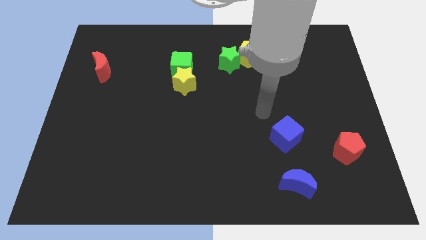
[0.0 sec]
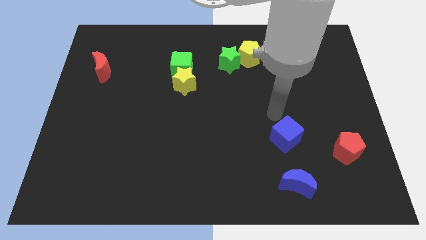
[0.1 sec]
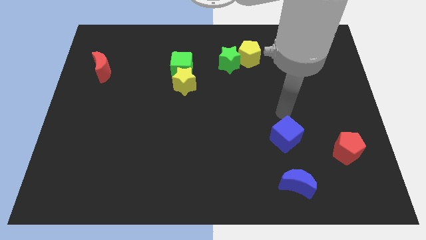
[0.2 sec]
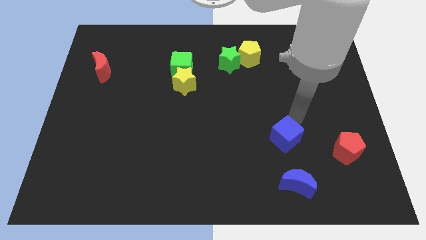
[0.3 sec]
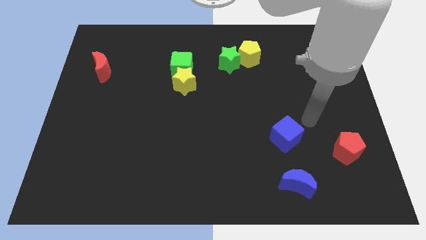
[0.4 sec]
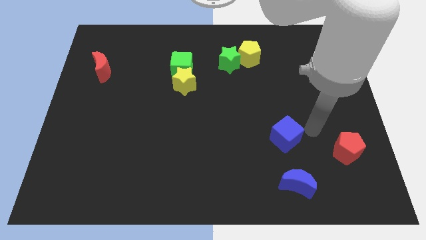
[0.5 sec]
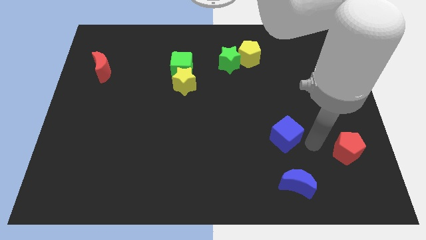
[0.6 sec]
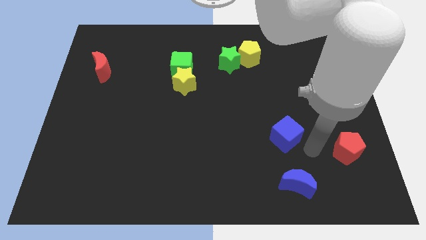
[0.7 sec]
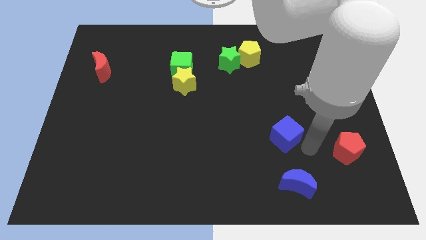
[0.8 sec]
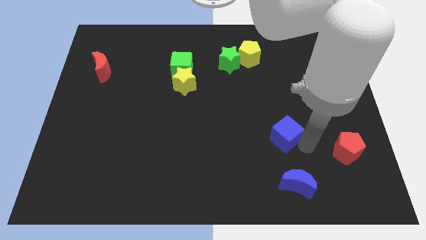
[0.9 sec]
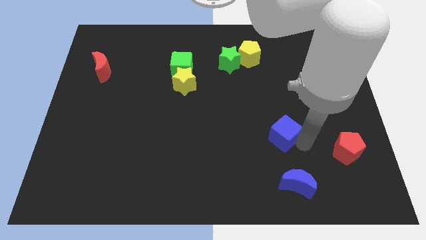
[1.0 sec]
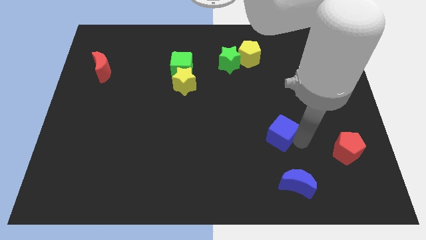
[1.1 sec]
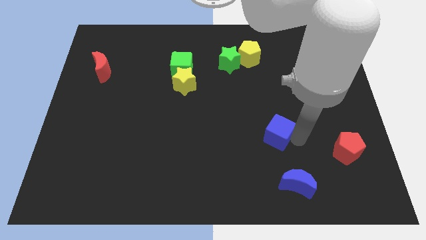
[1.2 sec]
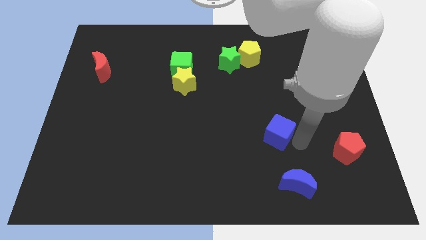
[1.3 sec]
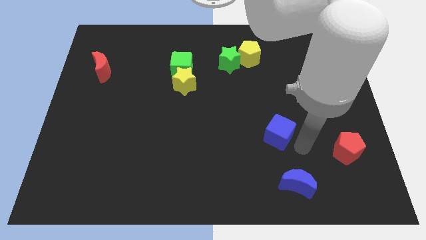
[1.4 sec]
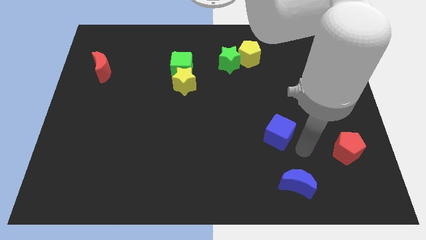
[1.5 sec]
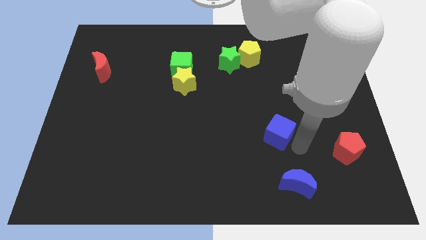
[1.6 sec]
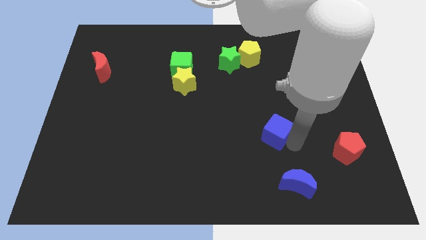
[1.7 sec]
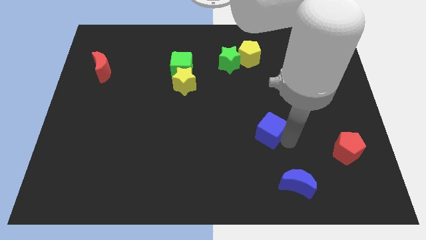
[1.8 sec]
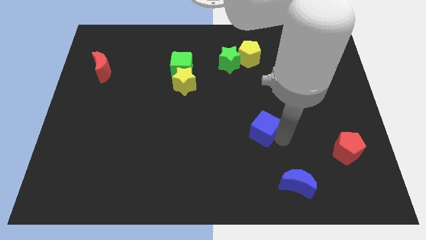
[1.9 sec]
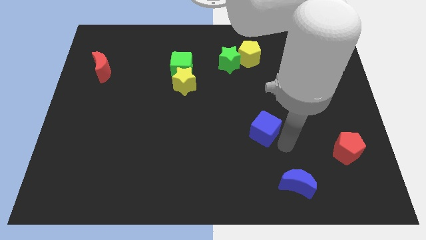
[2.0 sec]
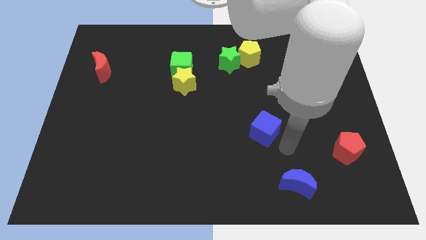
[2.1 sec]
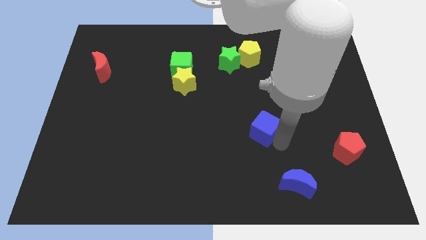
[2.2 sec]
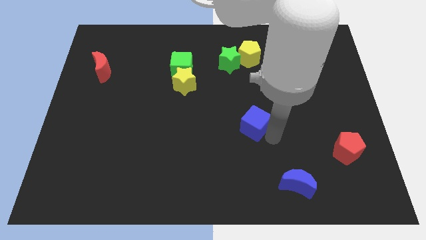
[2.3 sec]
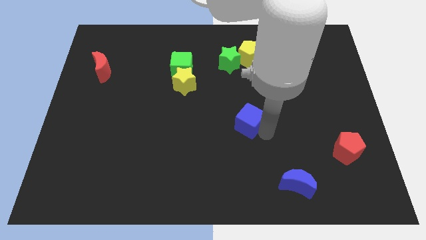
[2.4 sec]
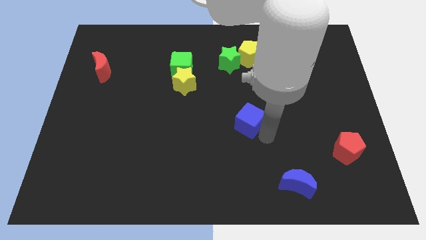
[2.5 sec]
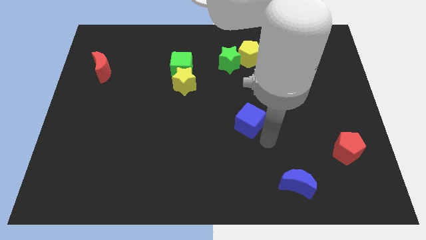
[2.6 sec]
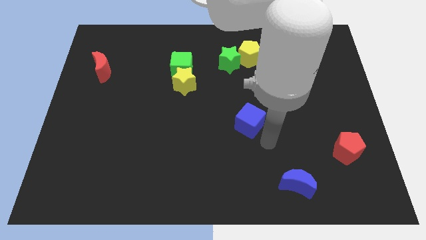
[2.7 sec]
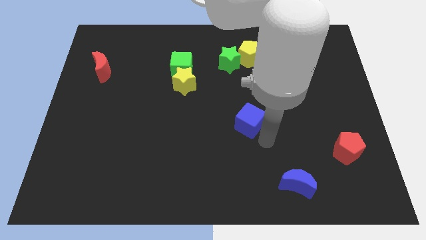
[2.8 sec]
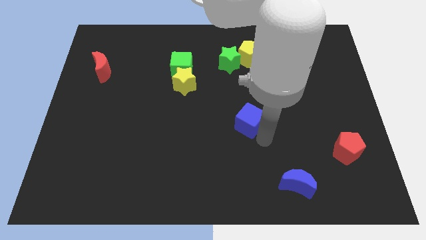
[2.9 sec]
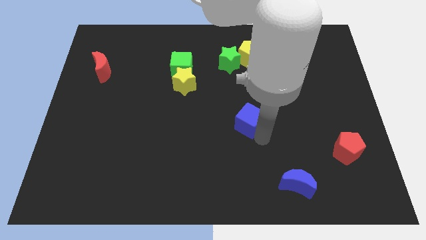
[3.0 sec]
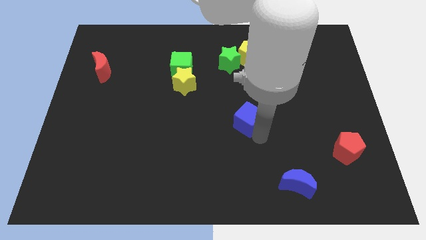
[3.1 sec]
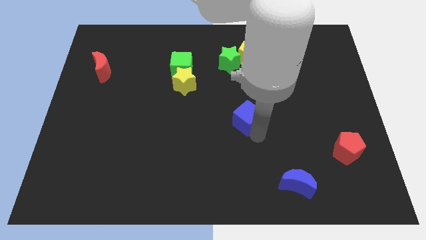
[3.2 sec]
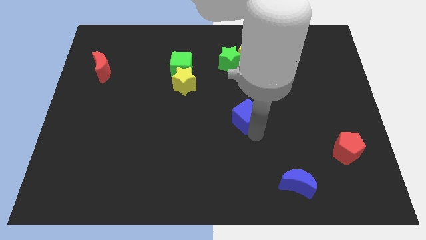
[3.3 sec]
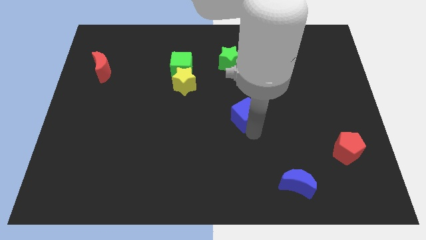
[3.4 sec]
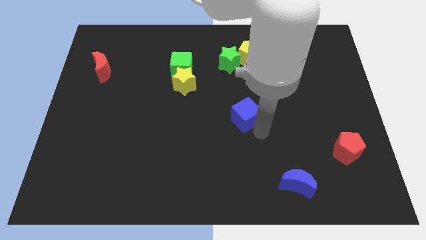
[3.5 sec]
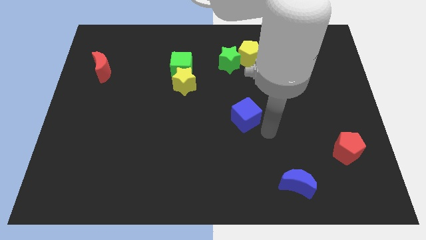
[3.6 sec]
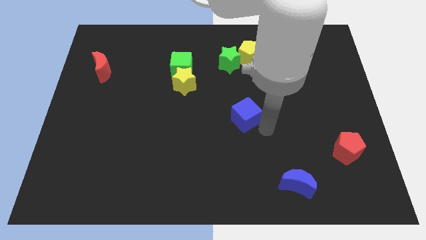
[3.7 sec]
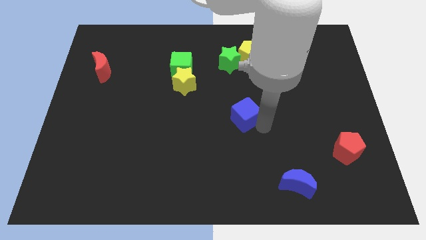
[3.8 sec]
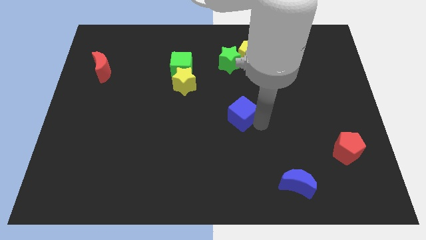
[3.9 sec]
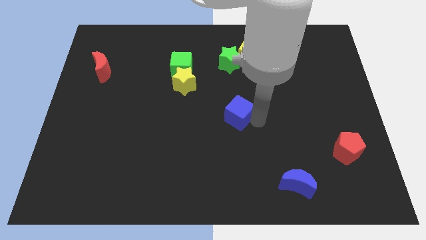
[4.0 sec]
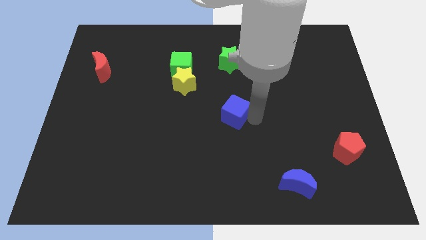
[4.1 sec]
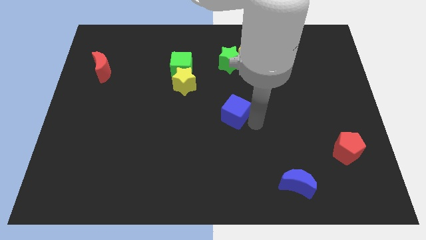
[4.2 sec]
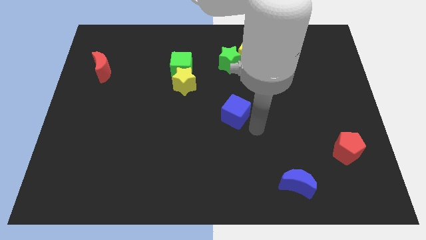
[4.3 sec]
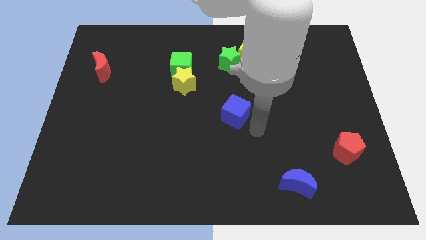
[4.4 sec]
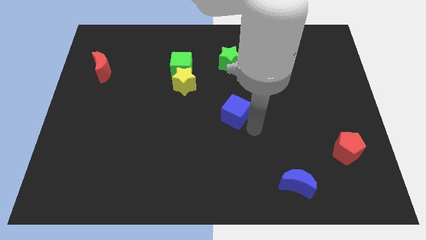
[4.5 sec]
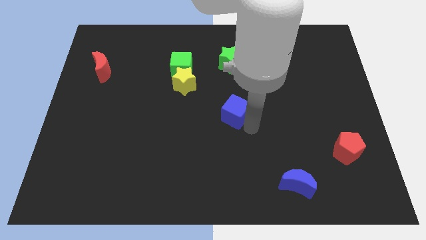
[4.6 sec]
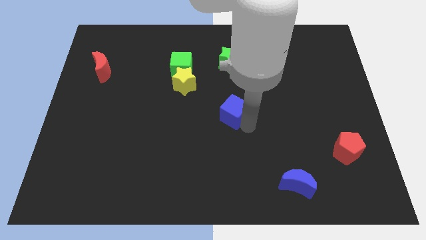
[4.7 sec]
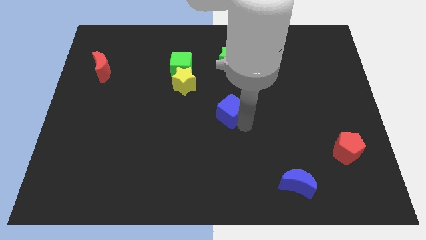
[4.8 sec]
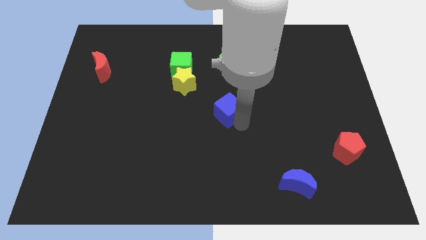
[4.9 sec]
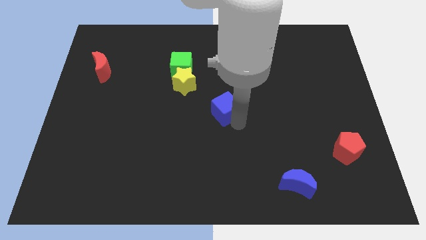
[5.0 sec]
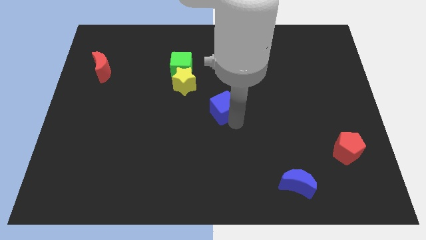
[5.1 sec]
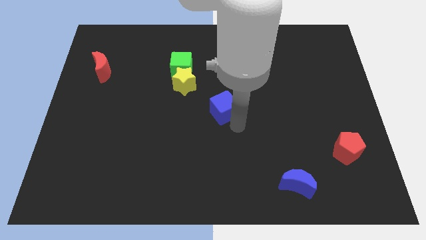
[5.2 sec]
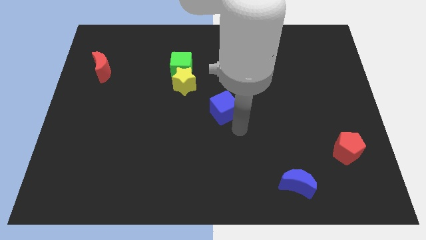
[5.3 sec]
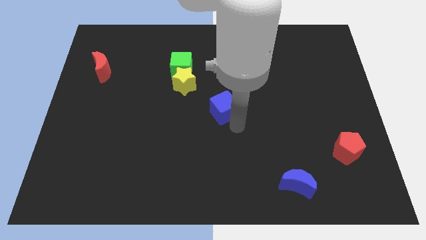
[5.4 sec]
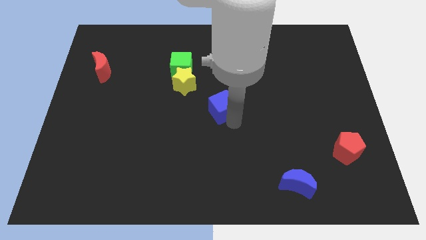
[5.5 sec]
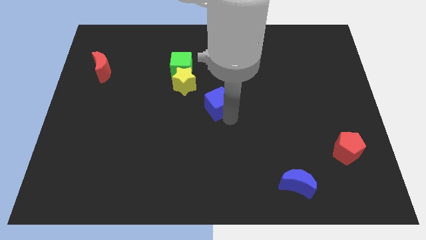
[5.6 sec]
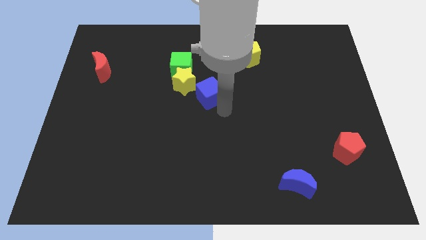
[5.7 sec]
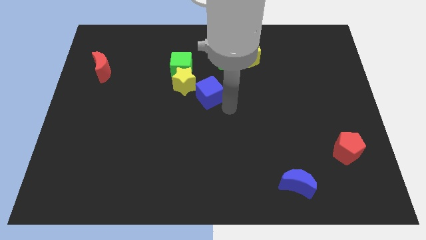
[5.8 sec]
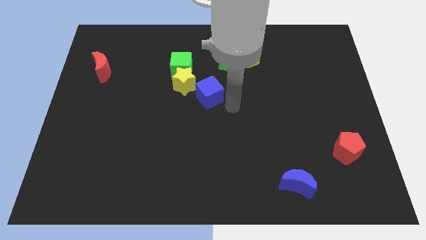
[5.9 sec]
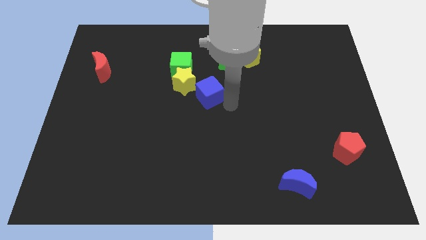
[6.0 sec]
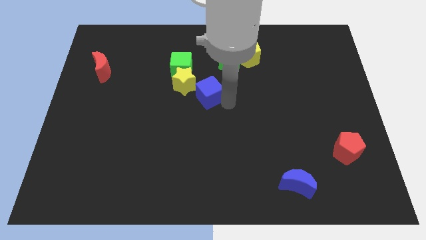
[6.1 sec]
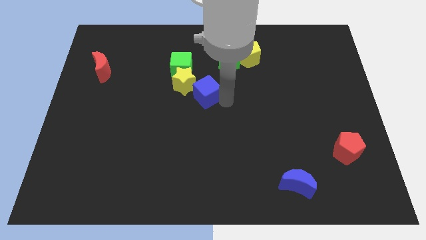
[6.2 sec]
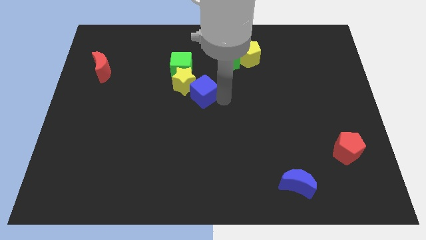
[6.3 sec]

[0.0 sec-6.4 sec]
move the blue cube next to the yellow star
